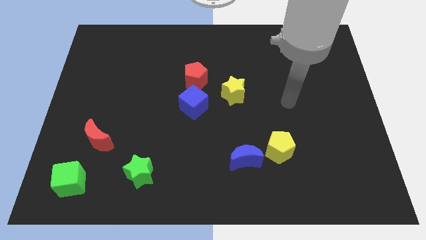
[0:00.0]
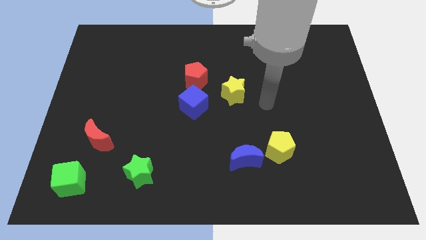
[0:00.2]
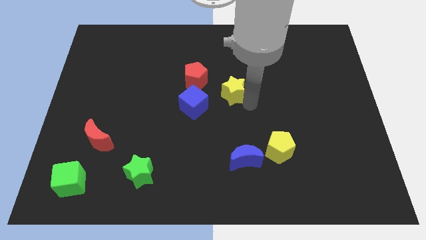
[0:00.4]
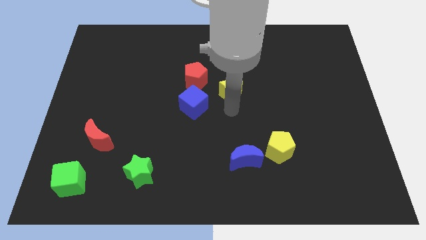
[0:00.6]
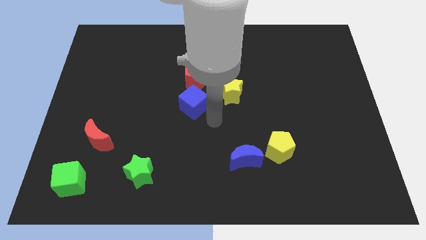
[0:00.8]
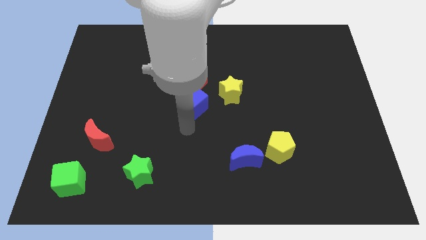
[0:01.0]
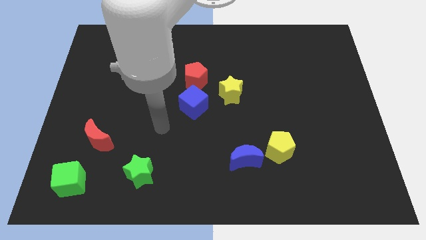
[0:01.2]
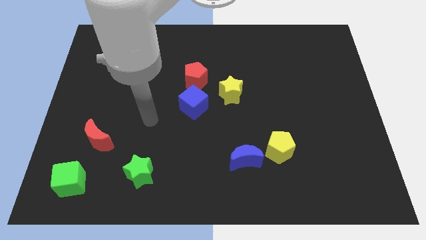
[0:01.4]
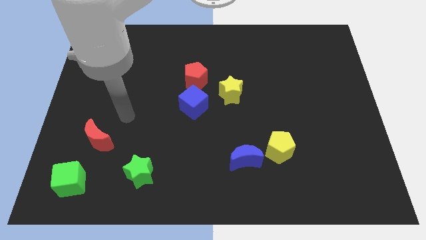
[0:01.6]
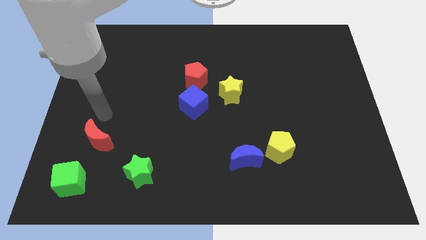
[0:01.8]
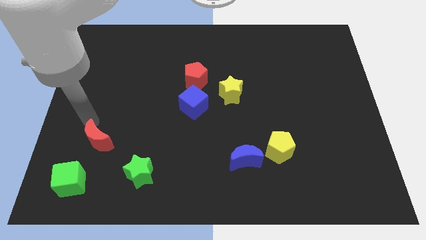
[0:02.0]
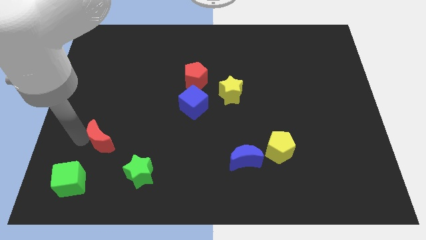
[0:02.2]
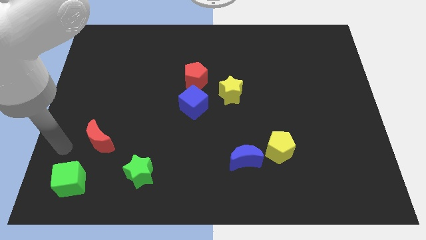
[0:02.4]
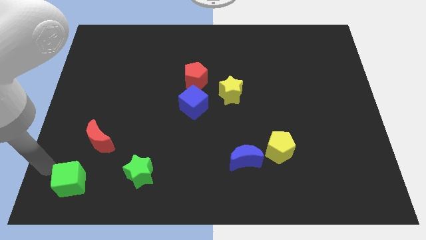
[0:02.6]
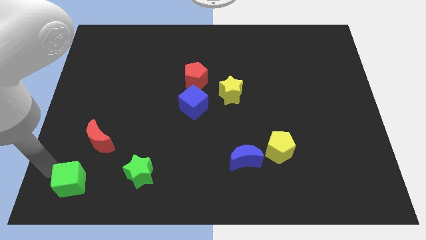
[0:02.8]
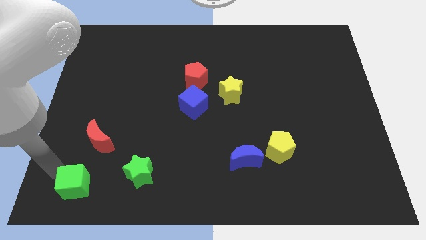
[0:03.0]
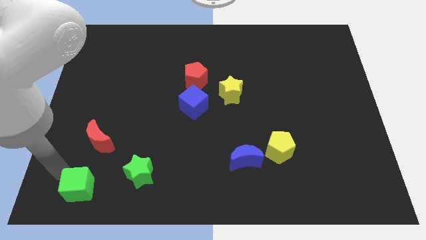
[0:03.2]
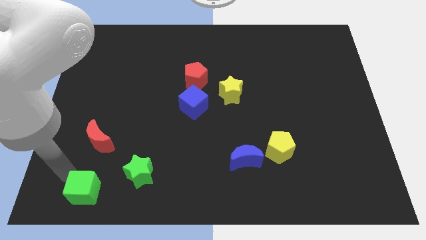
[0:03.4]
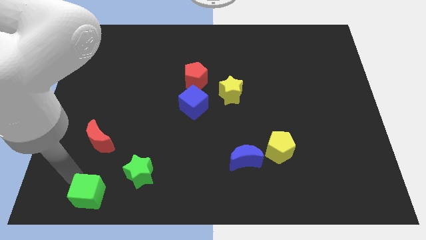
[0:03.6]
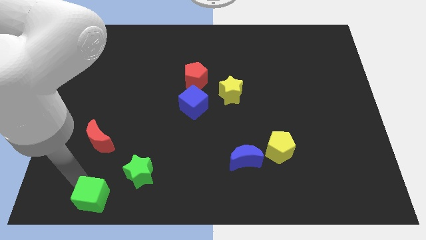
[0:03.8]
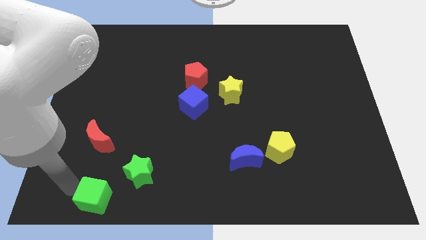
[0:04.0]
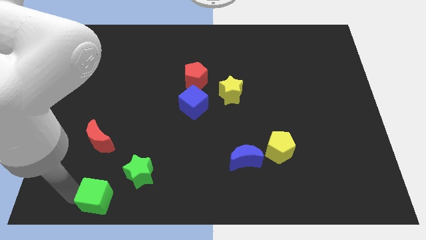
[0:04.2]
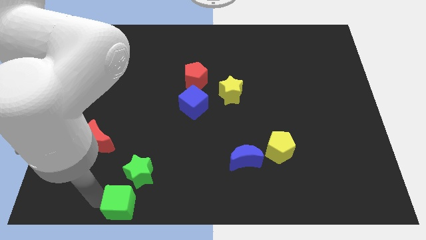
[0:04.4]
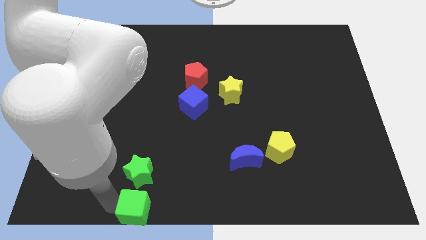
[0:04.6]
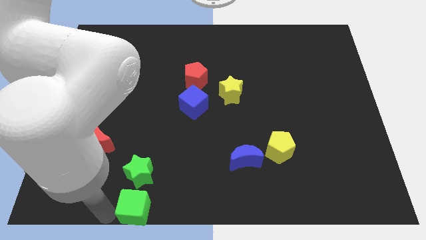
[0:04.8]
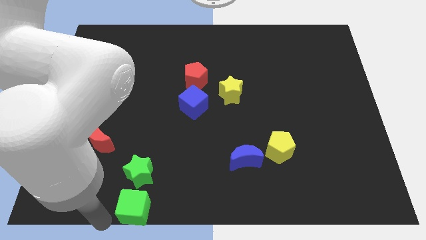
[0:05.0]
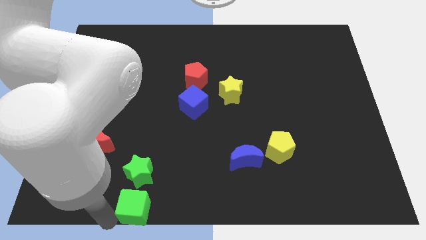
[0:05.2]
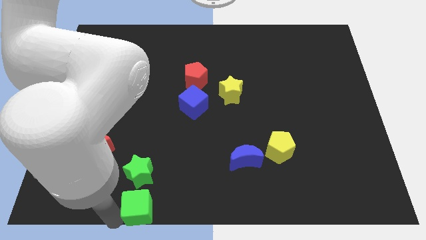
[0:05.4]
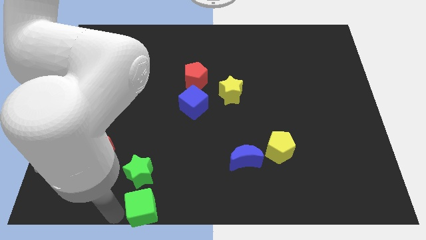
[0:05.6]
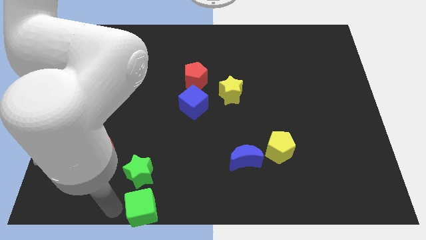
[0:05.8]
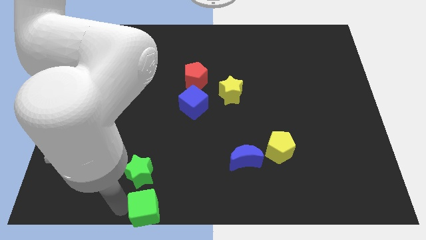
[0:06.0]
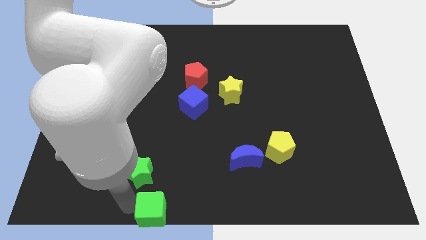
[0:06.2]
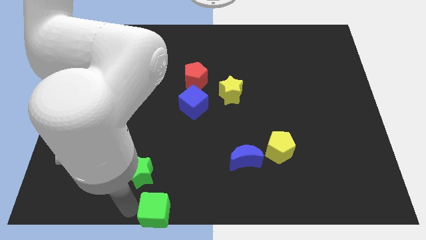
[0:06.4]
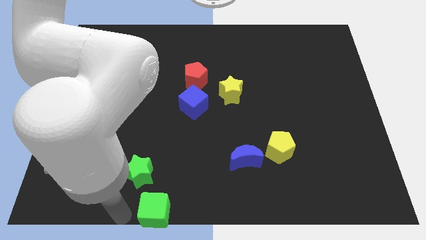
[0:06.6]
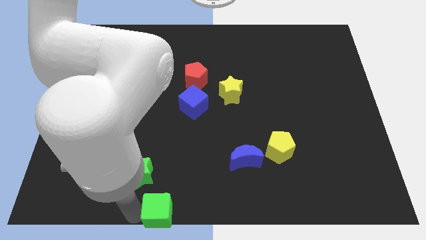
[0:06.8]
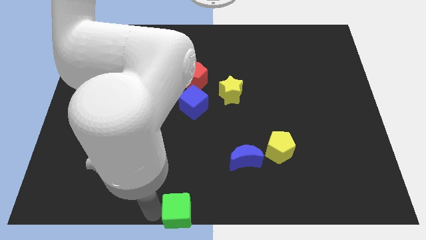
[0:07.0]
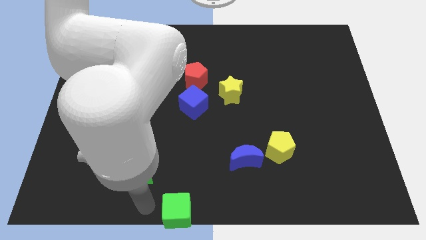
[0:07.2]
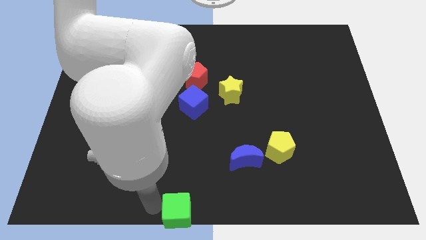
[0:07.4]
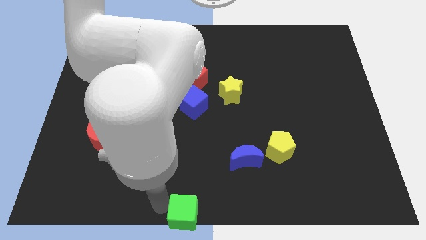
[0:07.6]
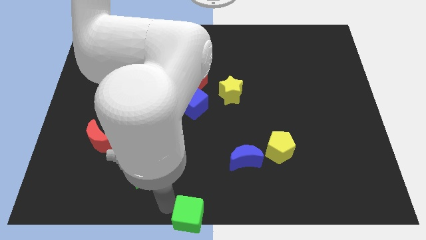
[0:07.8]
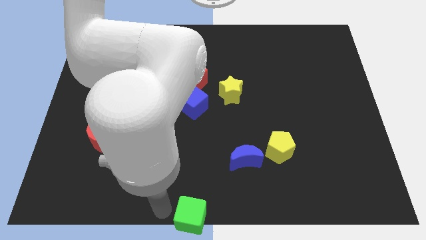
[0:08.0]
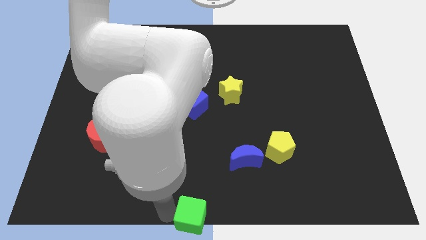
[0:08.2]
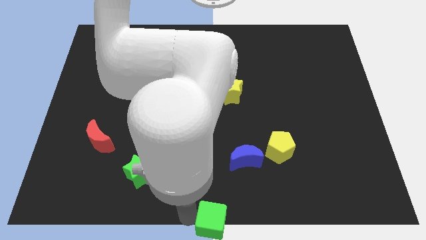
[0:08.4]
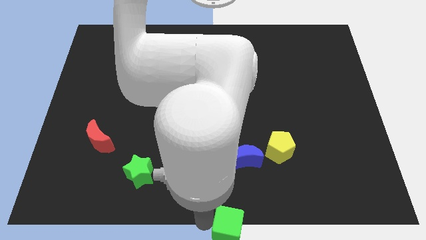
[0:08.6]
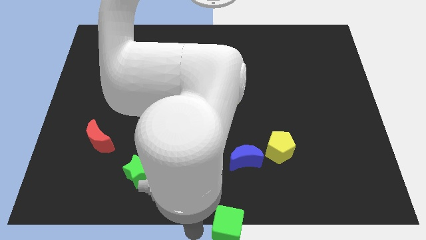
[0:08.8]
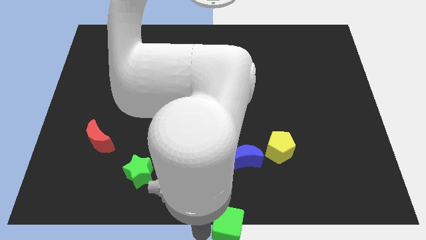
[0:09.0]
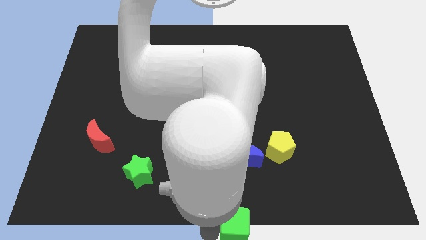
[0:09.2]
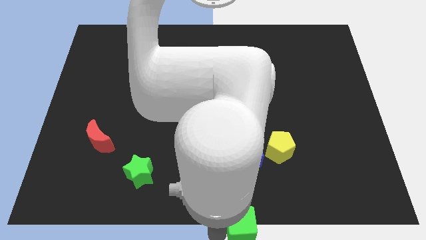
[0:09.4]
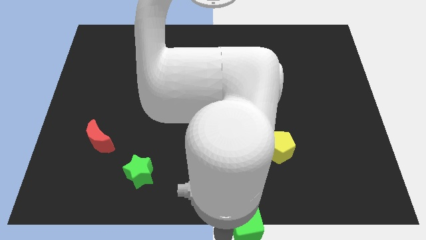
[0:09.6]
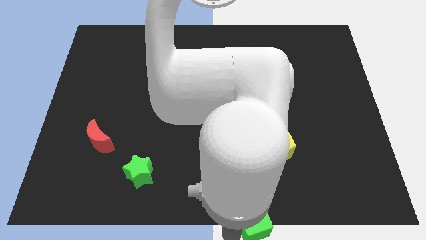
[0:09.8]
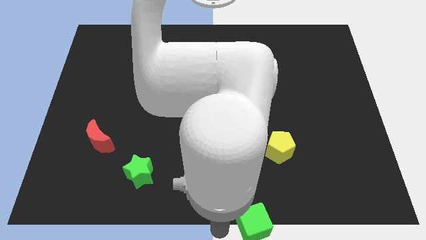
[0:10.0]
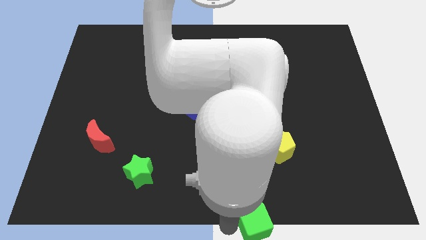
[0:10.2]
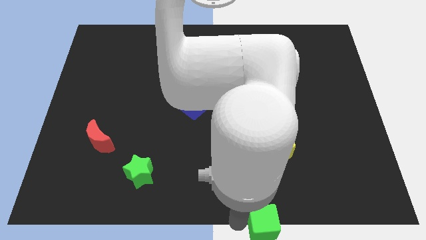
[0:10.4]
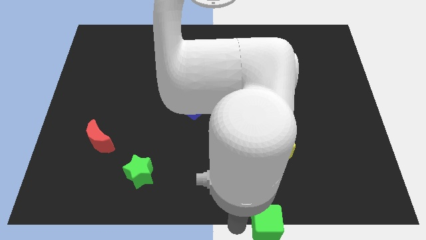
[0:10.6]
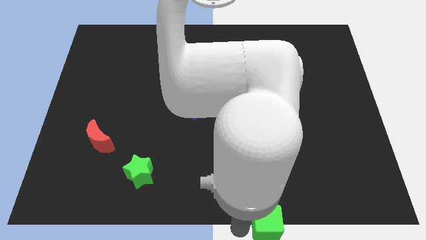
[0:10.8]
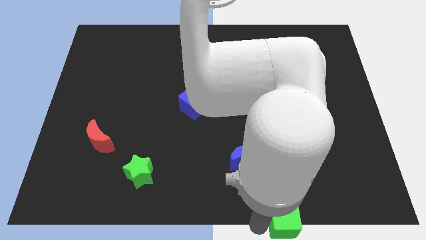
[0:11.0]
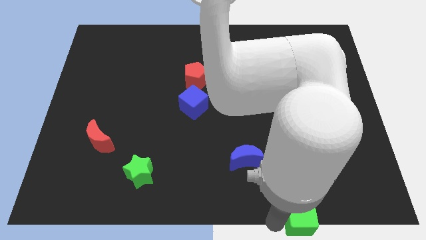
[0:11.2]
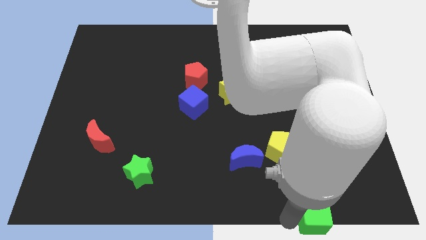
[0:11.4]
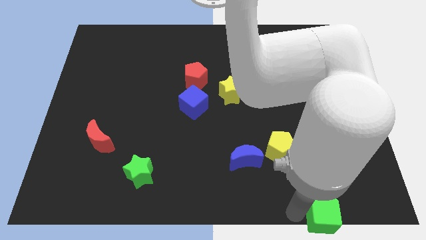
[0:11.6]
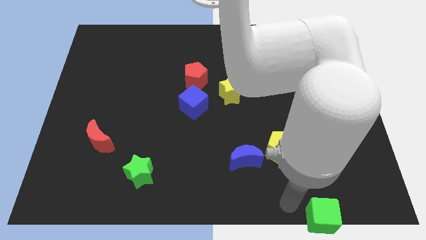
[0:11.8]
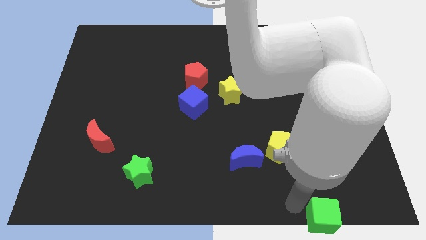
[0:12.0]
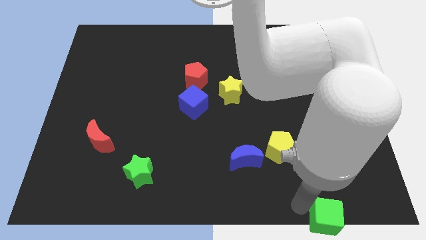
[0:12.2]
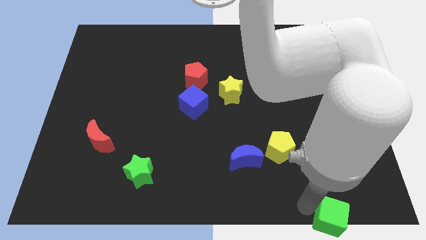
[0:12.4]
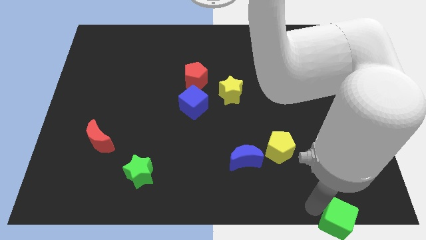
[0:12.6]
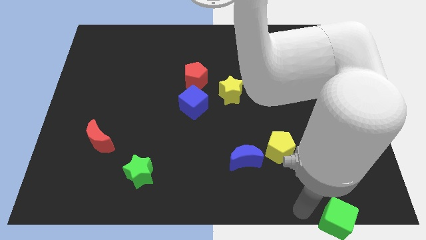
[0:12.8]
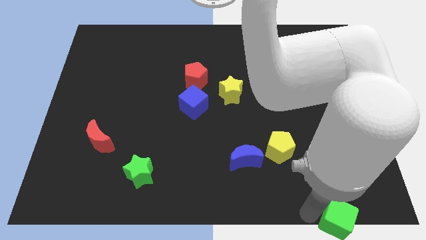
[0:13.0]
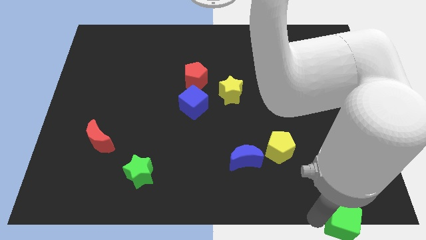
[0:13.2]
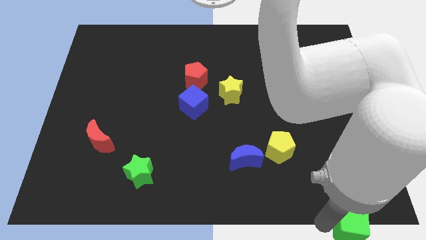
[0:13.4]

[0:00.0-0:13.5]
slide the green cube to the lower right corner
